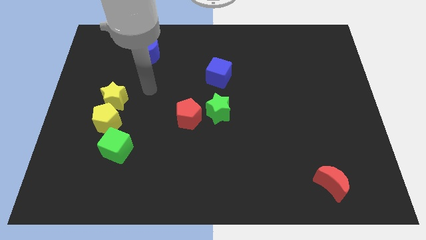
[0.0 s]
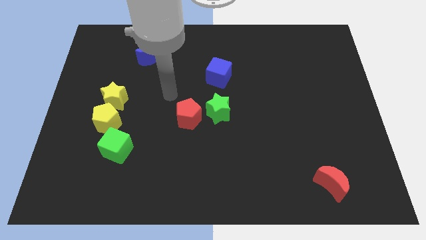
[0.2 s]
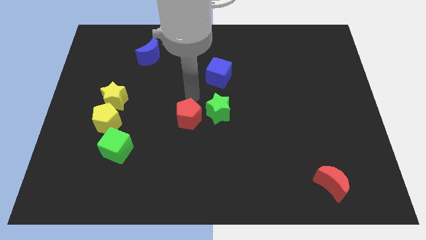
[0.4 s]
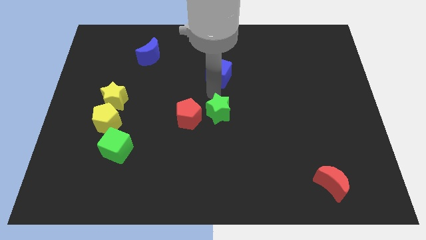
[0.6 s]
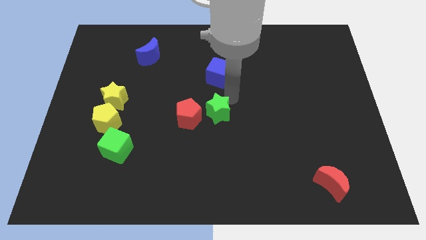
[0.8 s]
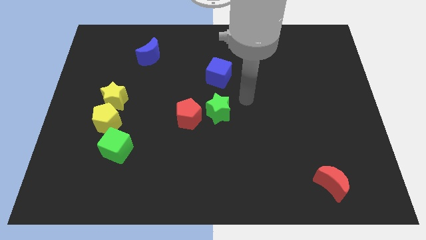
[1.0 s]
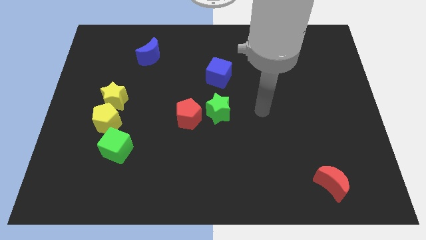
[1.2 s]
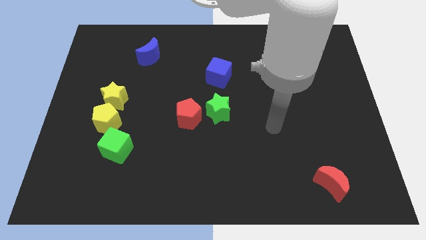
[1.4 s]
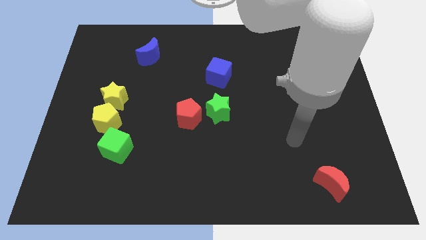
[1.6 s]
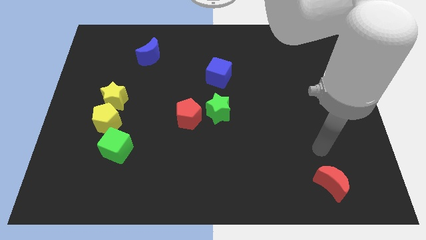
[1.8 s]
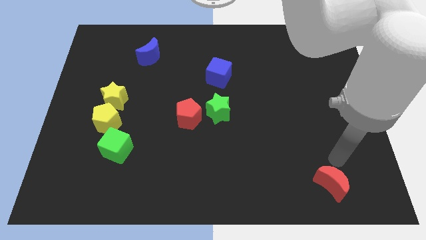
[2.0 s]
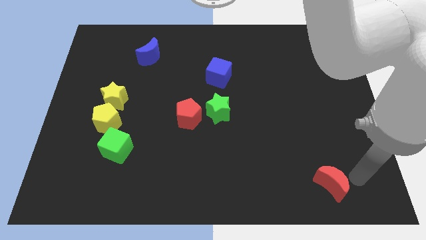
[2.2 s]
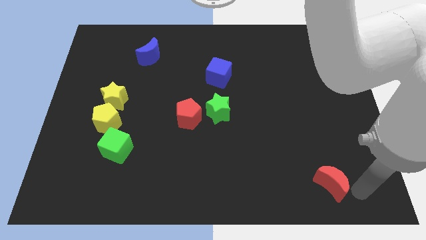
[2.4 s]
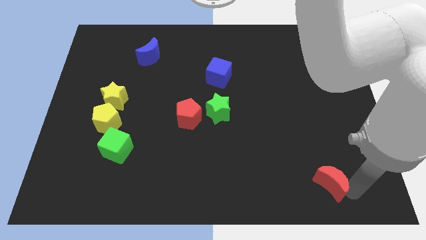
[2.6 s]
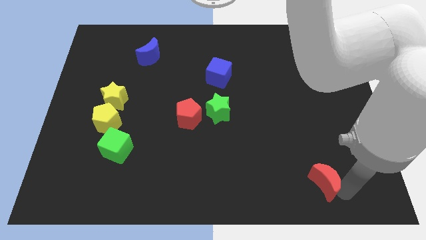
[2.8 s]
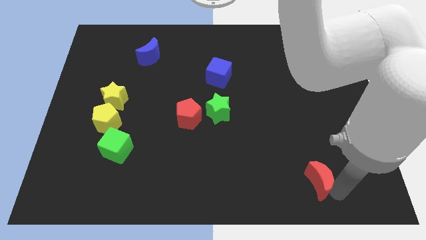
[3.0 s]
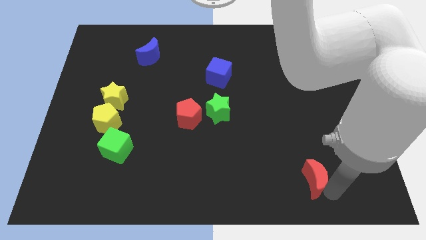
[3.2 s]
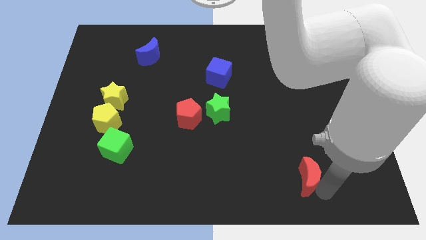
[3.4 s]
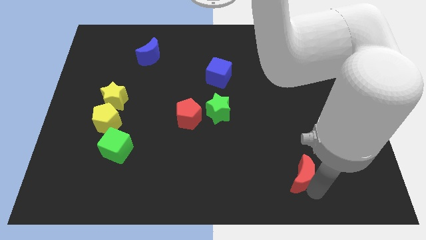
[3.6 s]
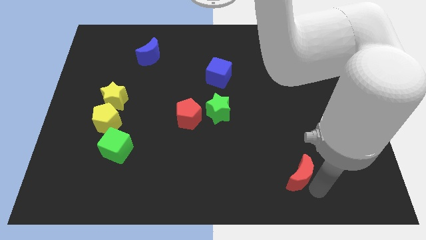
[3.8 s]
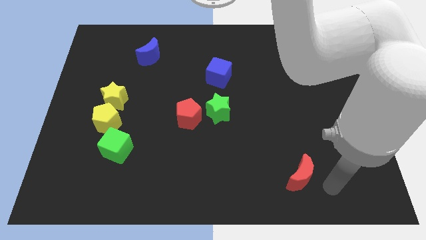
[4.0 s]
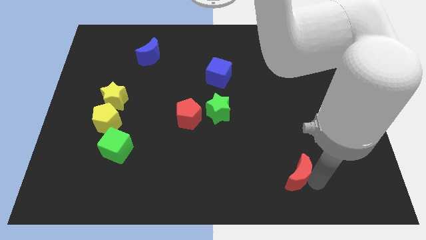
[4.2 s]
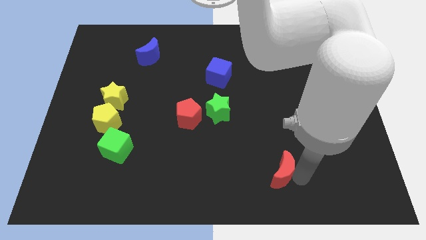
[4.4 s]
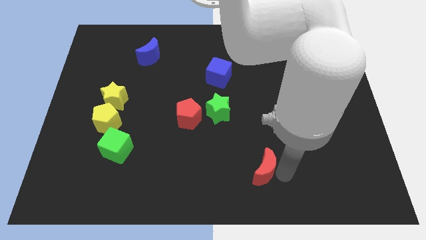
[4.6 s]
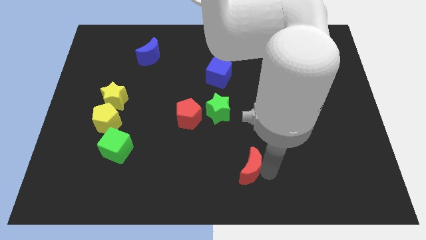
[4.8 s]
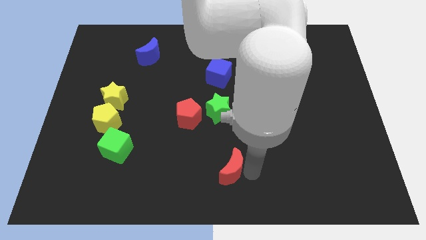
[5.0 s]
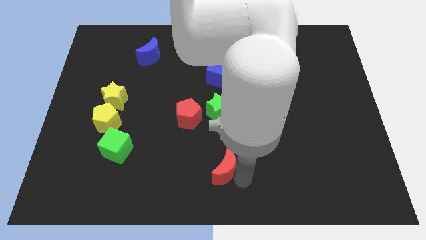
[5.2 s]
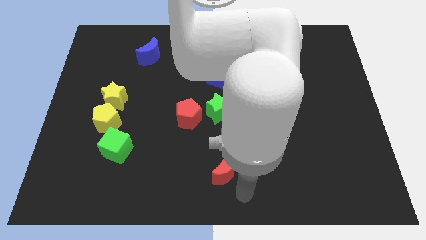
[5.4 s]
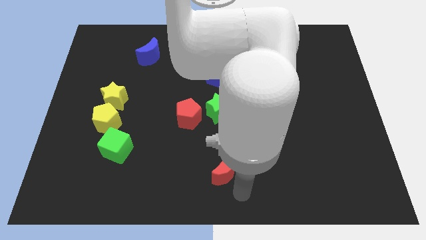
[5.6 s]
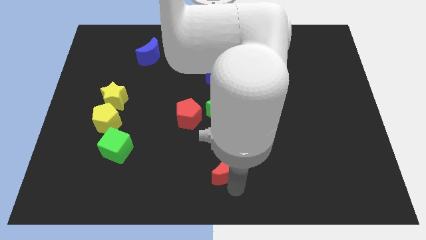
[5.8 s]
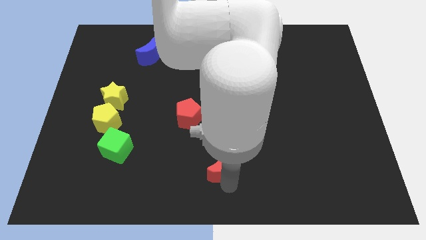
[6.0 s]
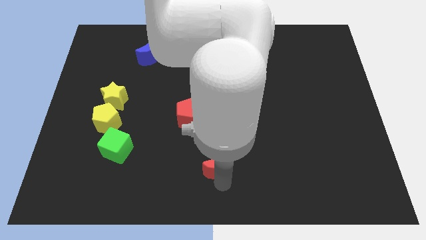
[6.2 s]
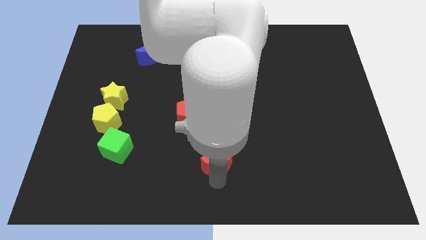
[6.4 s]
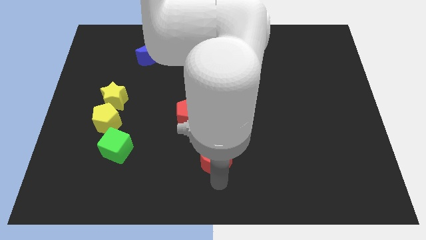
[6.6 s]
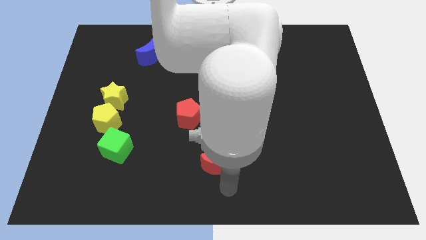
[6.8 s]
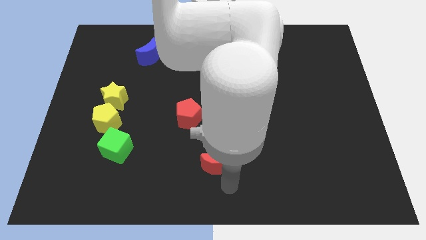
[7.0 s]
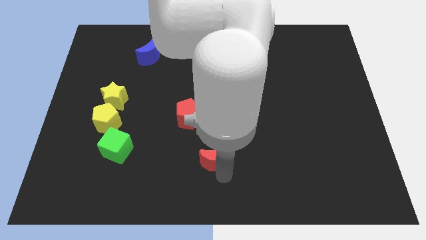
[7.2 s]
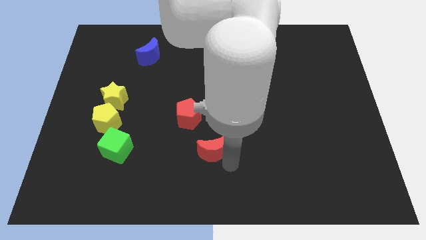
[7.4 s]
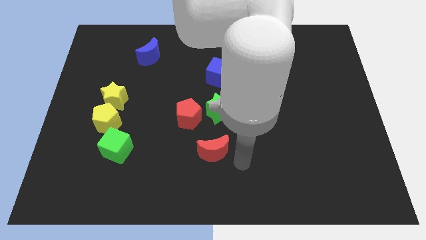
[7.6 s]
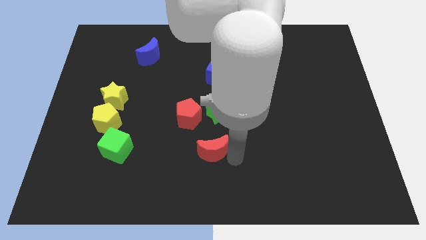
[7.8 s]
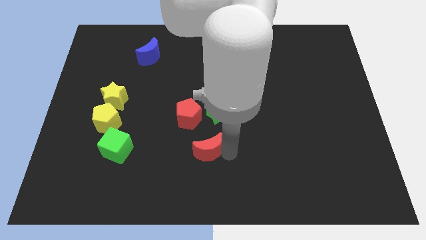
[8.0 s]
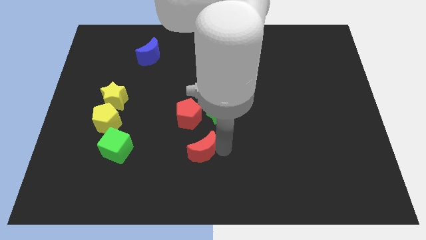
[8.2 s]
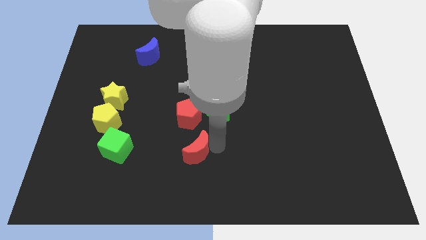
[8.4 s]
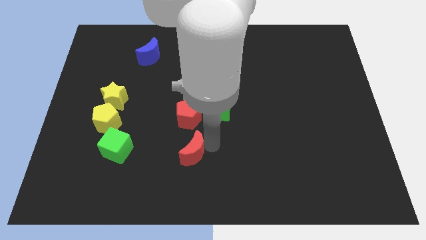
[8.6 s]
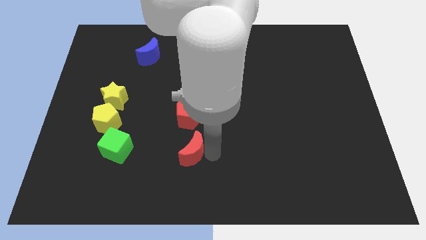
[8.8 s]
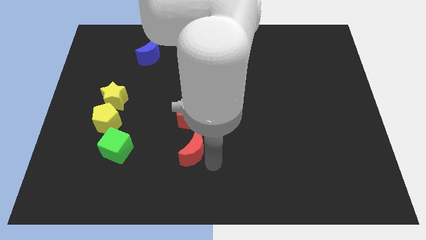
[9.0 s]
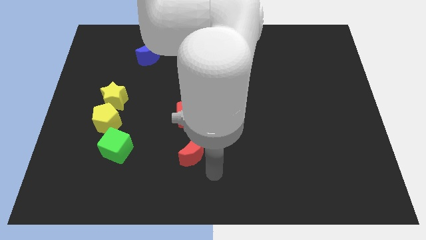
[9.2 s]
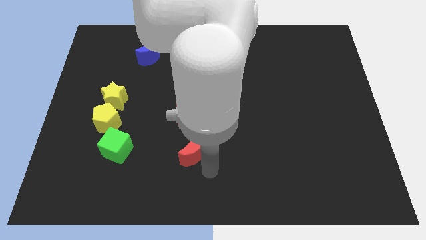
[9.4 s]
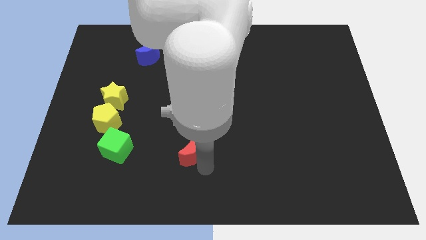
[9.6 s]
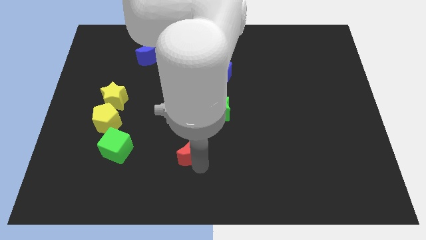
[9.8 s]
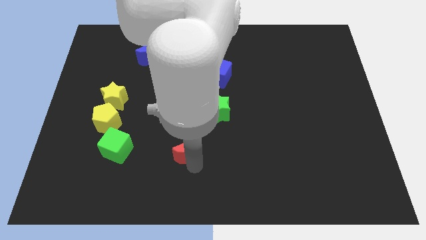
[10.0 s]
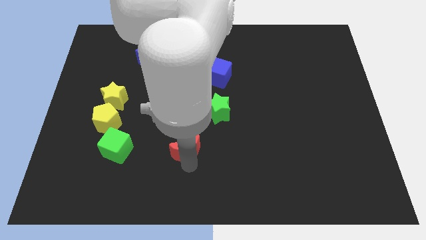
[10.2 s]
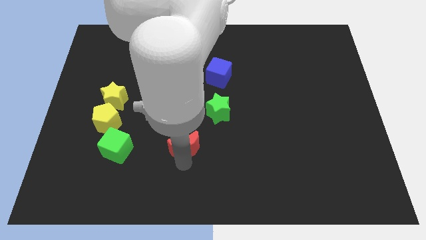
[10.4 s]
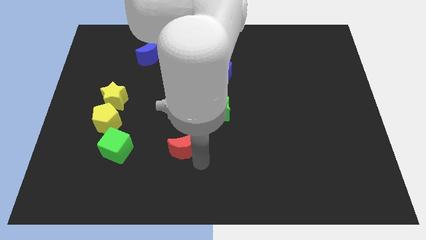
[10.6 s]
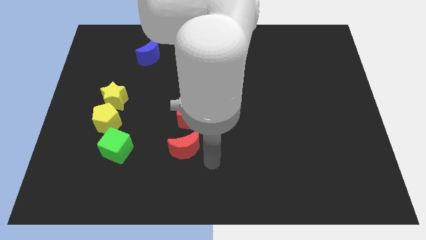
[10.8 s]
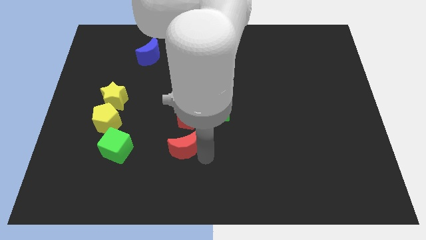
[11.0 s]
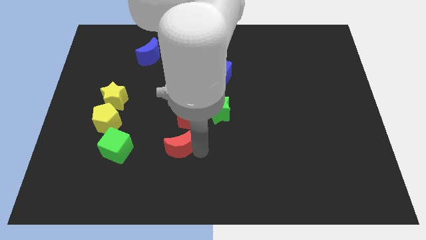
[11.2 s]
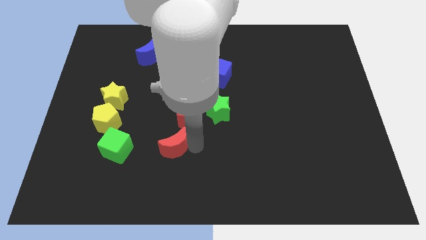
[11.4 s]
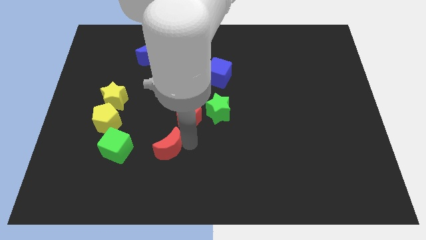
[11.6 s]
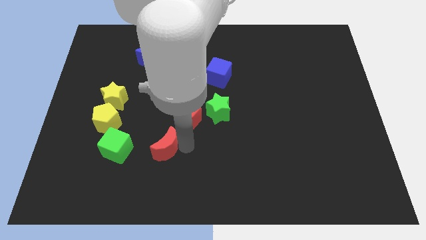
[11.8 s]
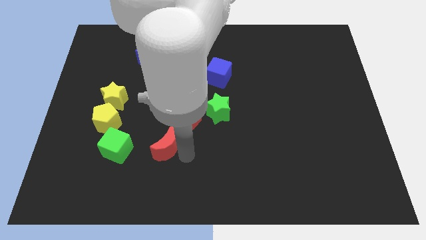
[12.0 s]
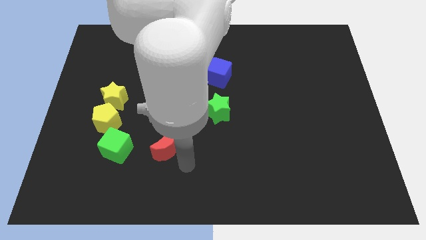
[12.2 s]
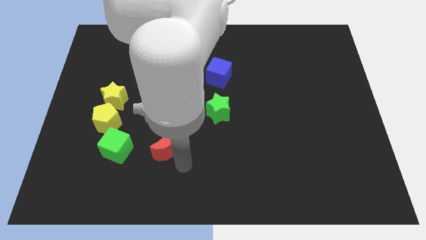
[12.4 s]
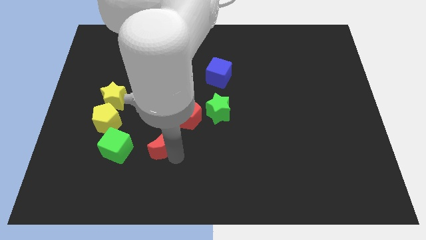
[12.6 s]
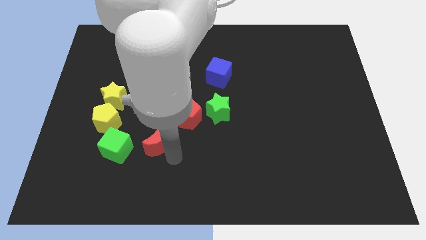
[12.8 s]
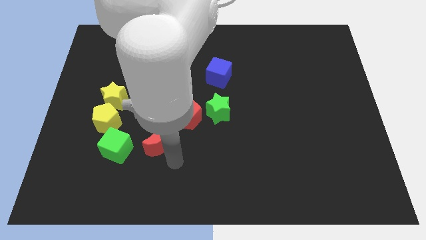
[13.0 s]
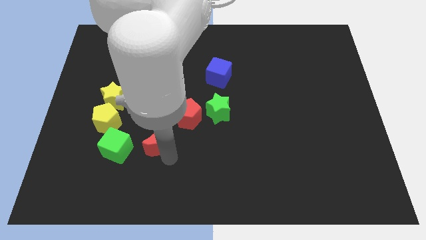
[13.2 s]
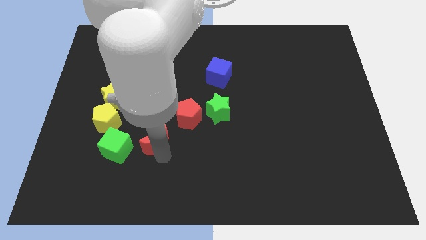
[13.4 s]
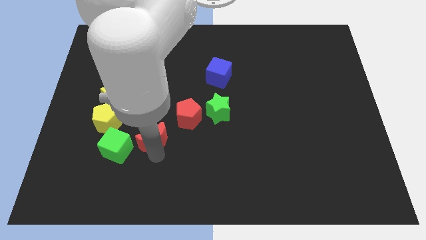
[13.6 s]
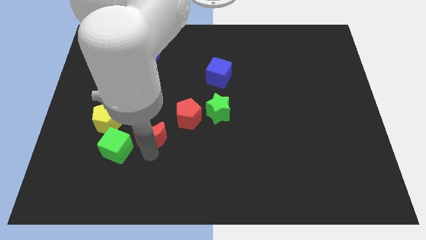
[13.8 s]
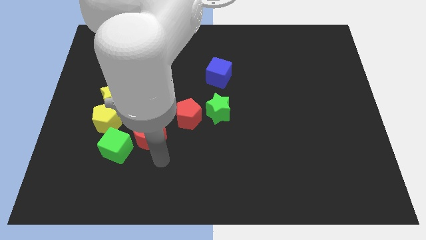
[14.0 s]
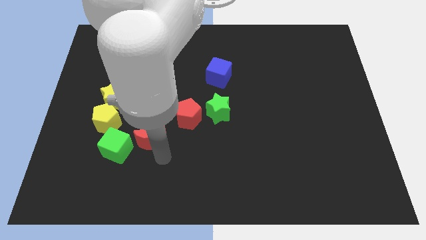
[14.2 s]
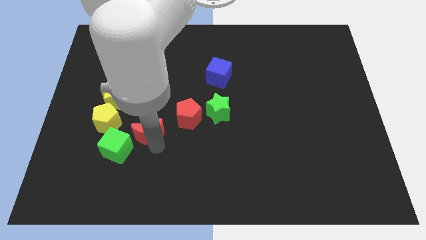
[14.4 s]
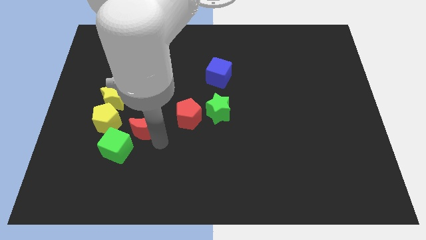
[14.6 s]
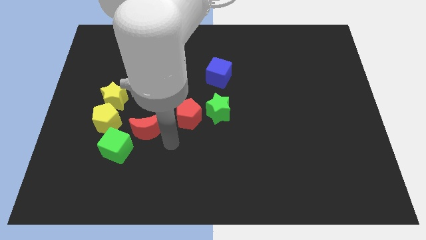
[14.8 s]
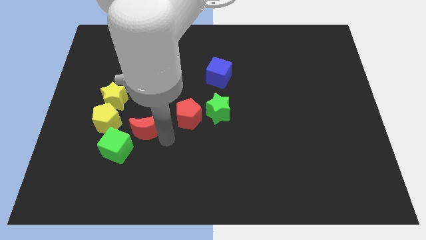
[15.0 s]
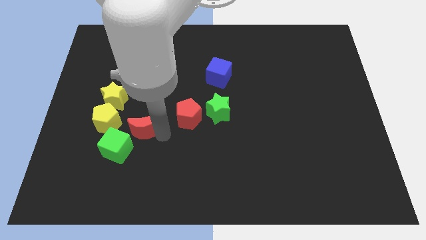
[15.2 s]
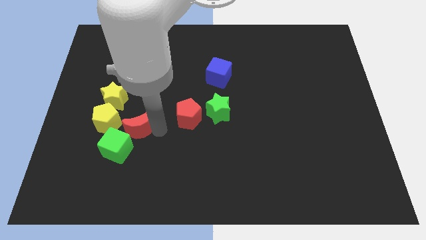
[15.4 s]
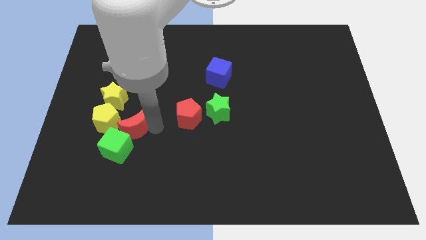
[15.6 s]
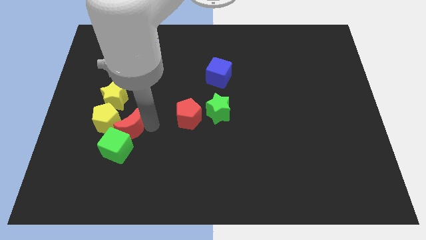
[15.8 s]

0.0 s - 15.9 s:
put the red moon next to the yellow pentagon
